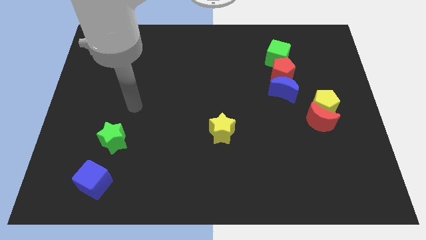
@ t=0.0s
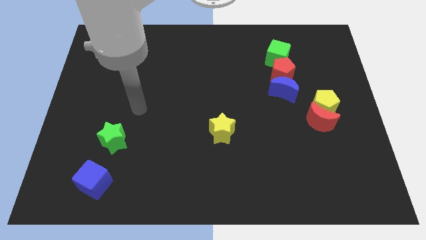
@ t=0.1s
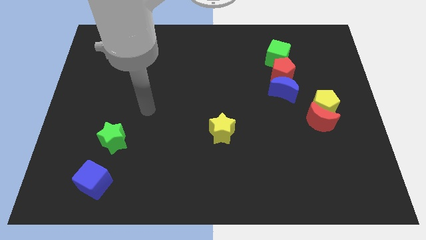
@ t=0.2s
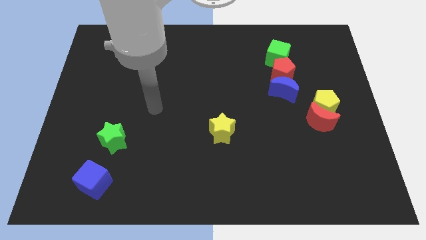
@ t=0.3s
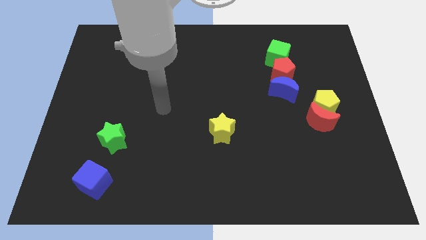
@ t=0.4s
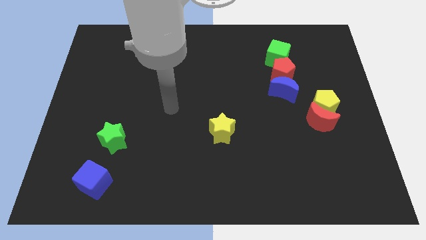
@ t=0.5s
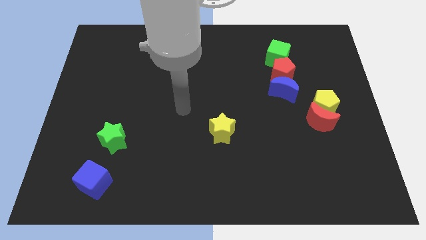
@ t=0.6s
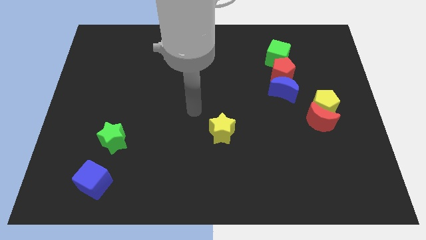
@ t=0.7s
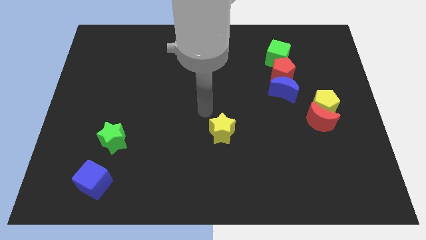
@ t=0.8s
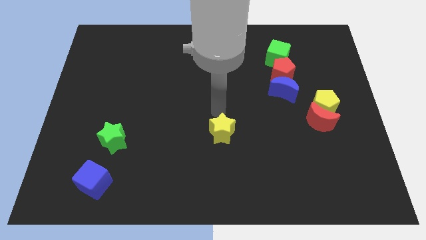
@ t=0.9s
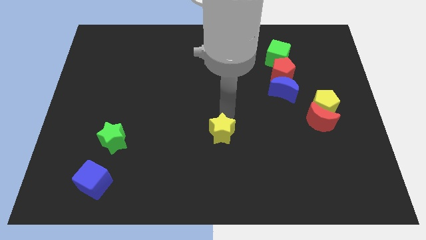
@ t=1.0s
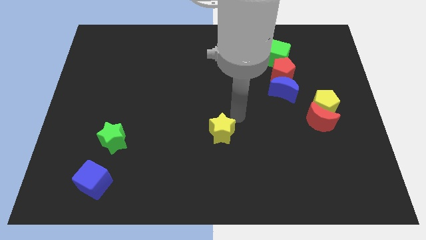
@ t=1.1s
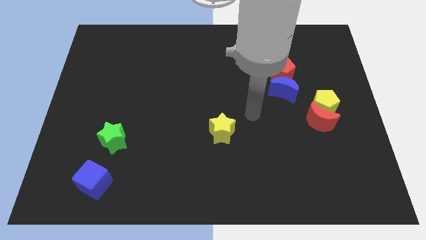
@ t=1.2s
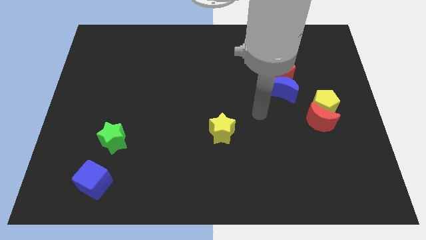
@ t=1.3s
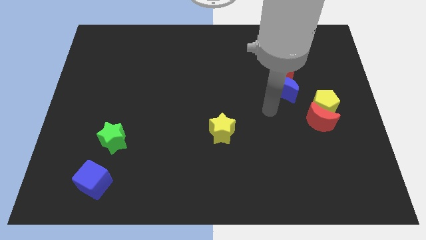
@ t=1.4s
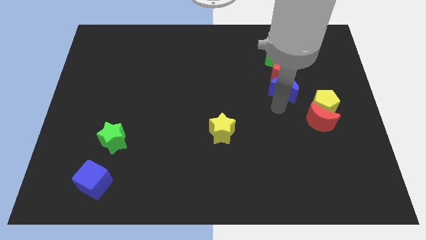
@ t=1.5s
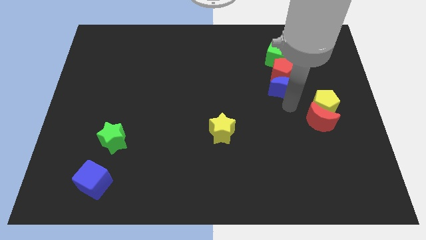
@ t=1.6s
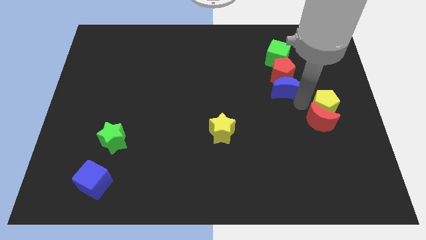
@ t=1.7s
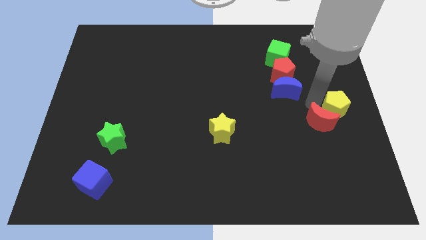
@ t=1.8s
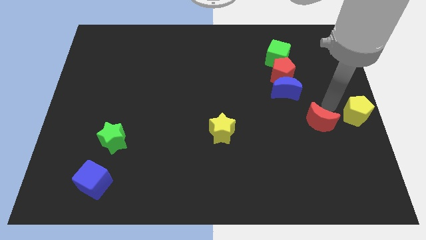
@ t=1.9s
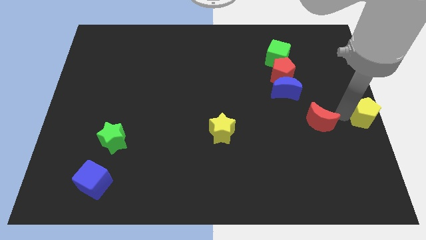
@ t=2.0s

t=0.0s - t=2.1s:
separate the red moon from the yellow pentagon

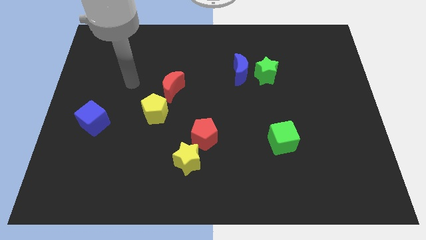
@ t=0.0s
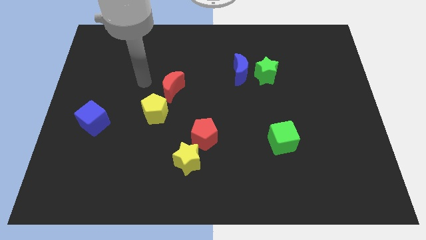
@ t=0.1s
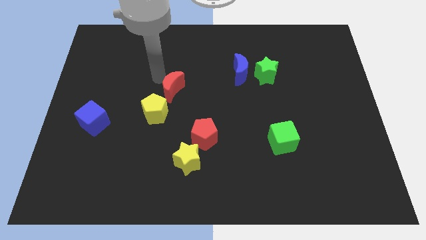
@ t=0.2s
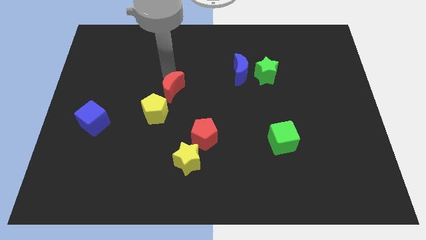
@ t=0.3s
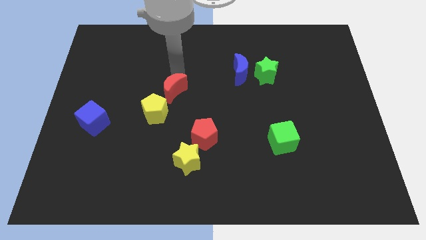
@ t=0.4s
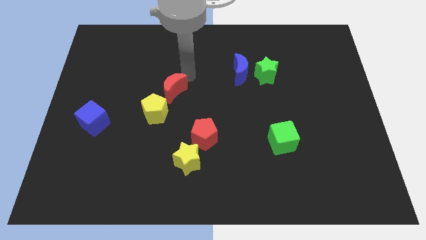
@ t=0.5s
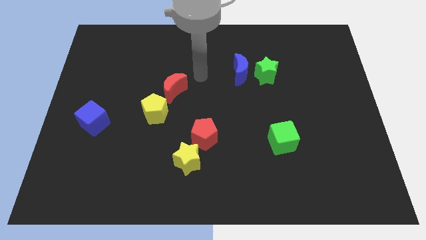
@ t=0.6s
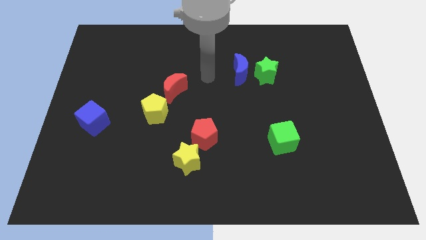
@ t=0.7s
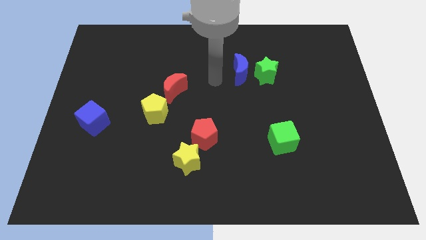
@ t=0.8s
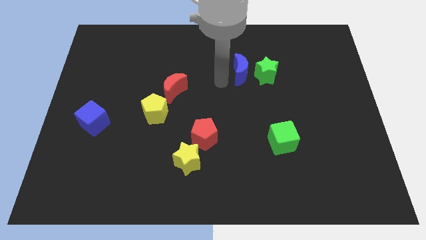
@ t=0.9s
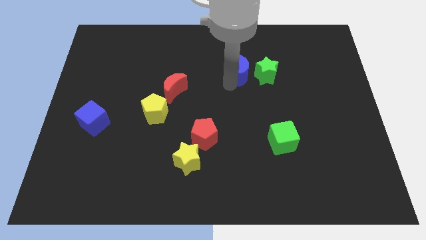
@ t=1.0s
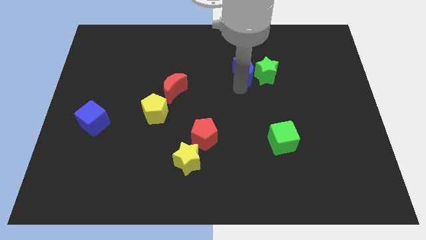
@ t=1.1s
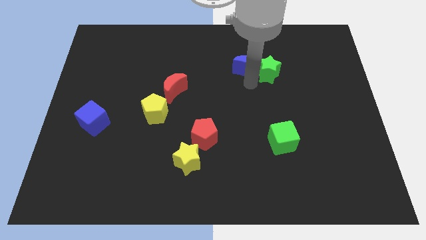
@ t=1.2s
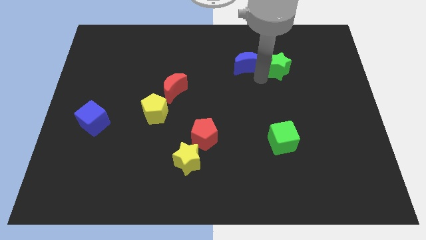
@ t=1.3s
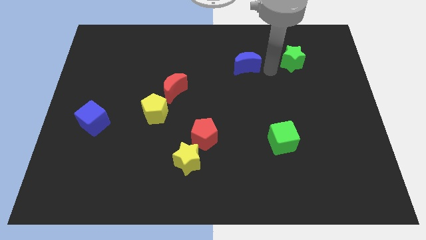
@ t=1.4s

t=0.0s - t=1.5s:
move the blue moon away from the green star

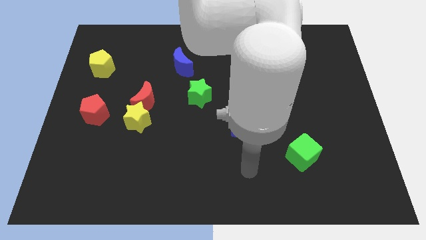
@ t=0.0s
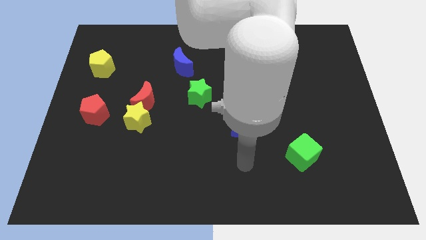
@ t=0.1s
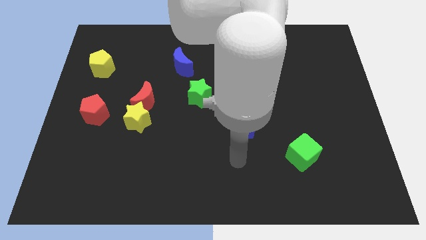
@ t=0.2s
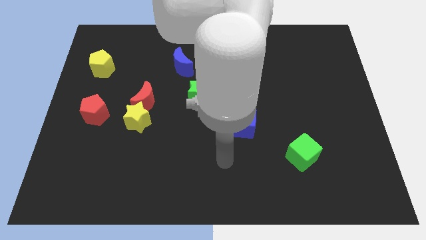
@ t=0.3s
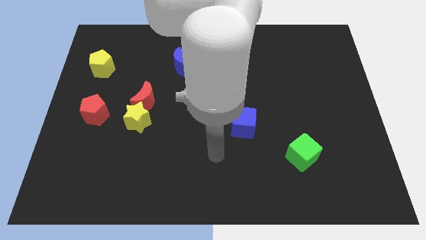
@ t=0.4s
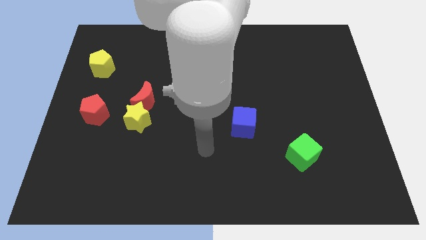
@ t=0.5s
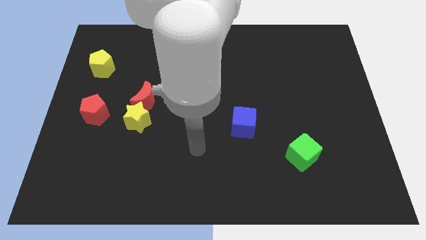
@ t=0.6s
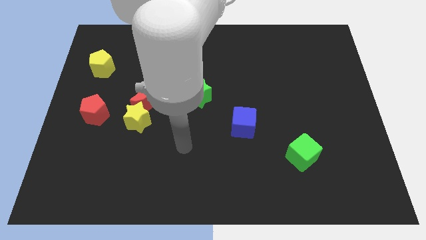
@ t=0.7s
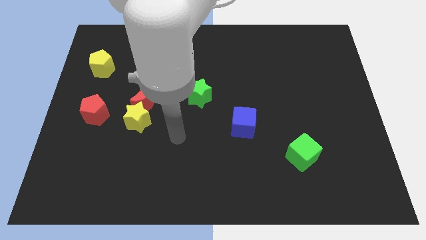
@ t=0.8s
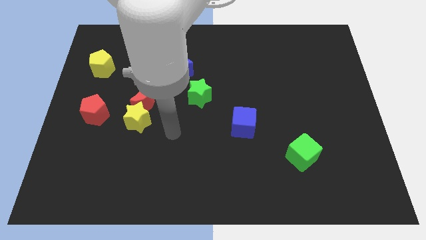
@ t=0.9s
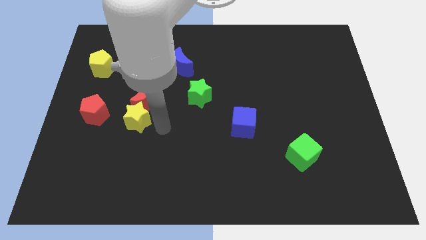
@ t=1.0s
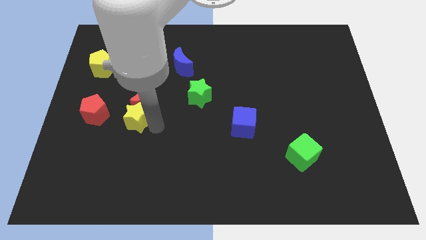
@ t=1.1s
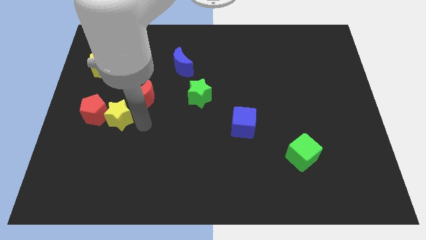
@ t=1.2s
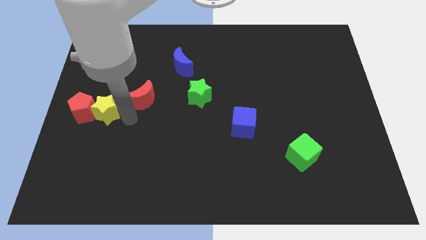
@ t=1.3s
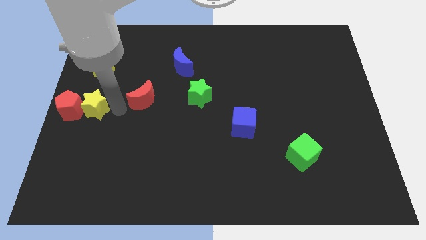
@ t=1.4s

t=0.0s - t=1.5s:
move the red moon away from the yellow star

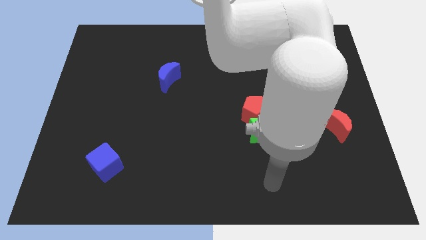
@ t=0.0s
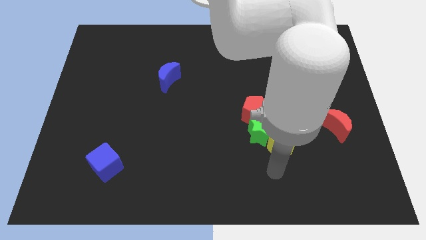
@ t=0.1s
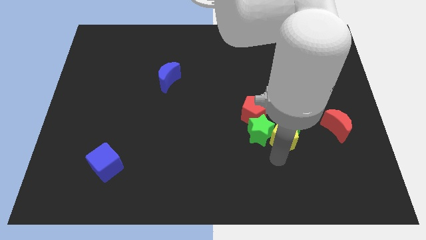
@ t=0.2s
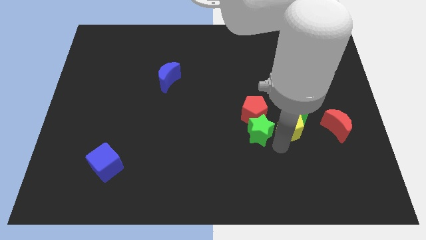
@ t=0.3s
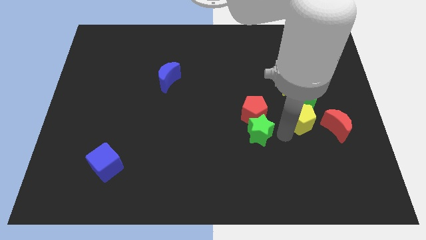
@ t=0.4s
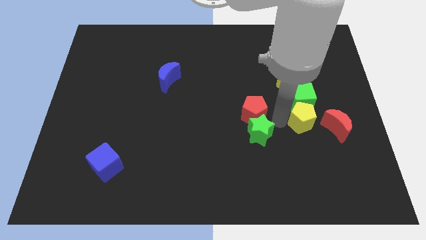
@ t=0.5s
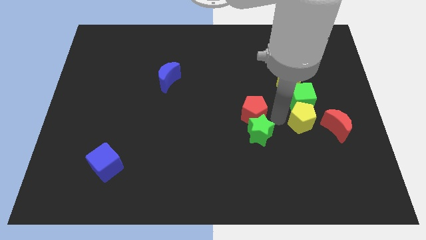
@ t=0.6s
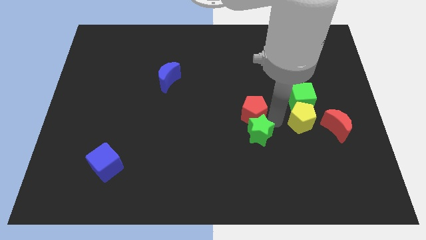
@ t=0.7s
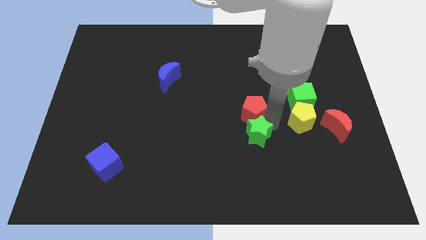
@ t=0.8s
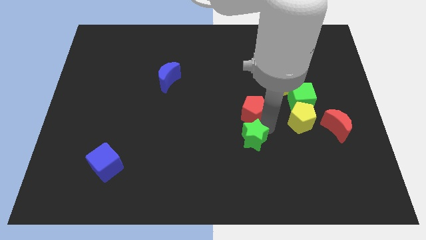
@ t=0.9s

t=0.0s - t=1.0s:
move the green star away from the group

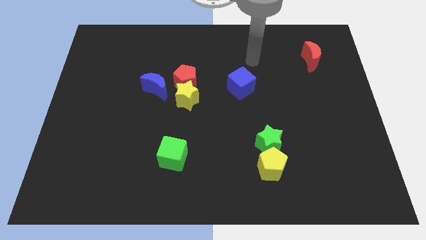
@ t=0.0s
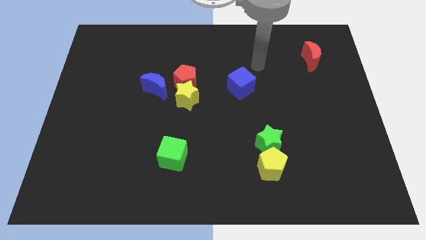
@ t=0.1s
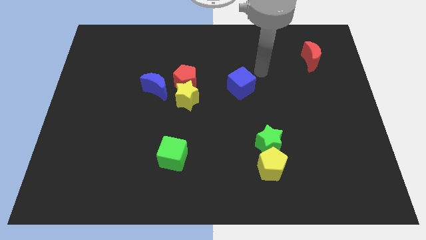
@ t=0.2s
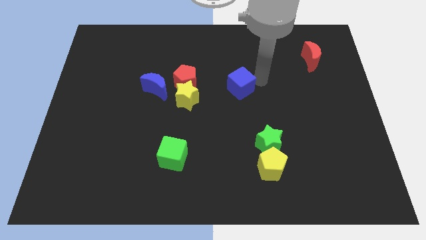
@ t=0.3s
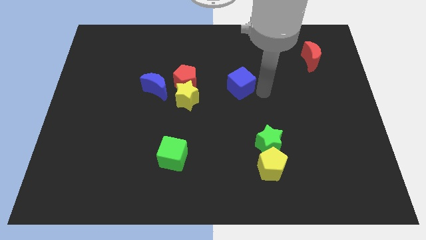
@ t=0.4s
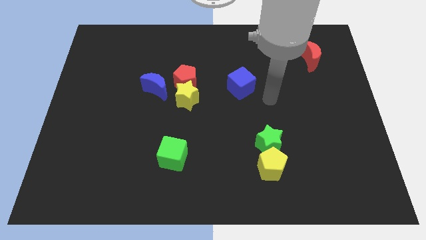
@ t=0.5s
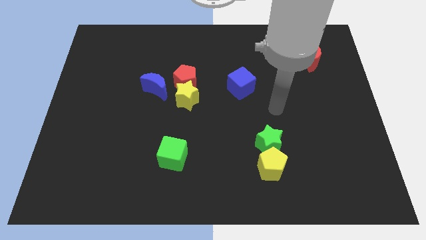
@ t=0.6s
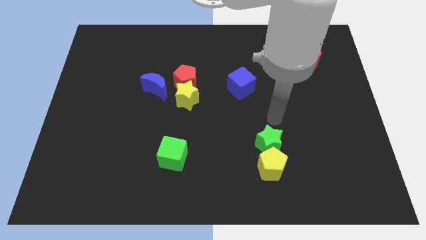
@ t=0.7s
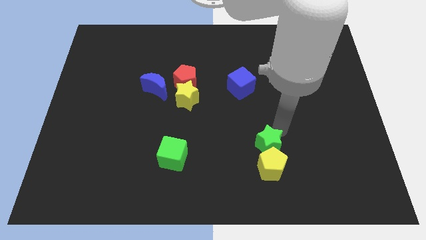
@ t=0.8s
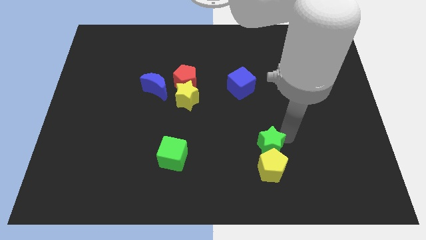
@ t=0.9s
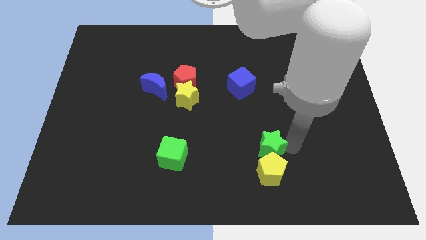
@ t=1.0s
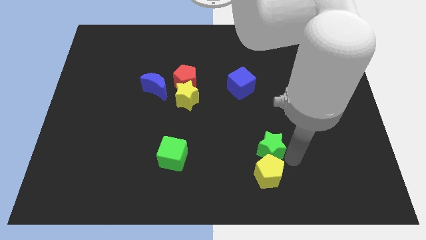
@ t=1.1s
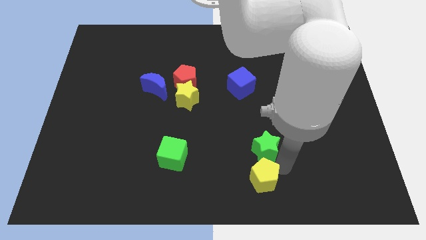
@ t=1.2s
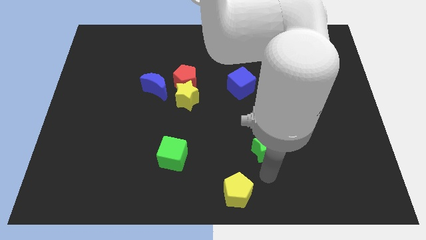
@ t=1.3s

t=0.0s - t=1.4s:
separate the green star from the yellow pentagon

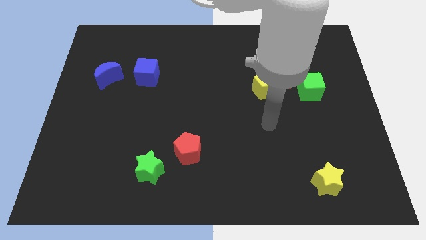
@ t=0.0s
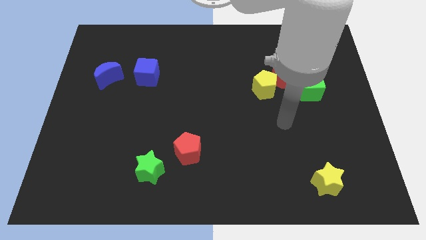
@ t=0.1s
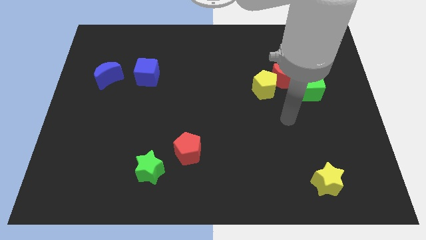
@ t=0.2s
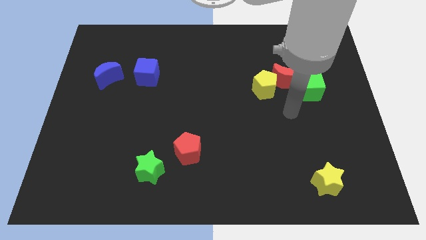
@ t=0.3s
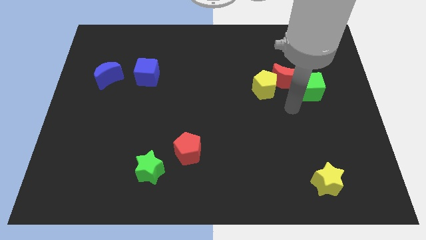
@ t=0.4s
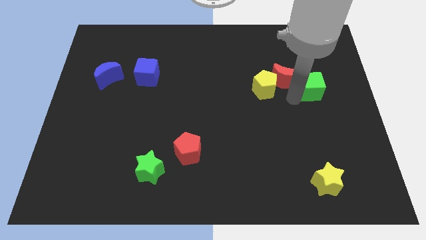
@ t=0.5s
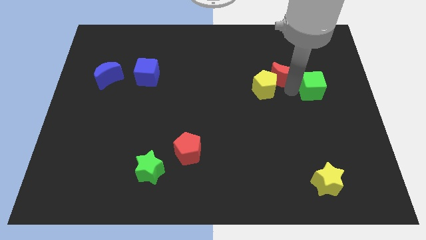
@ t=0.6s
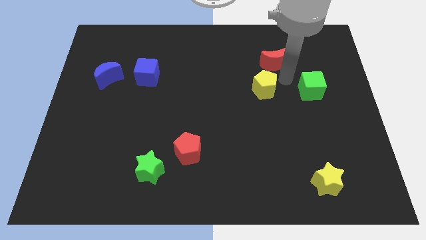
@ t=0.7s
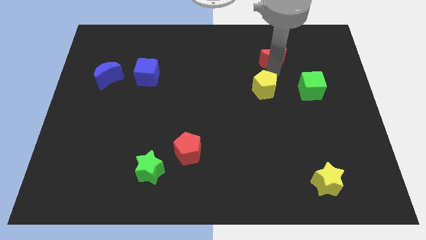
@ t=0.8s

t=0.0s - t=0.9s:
pull the yellow pentagon apart from the red moon

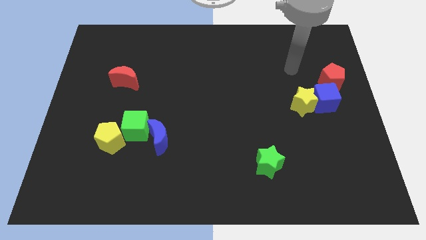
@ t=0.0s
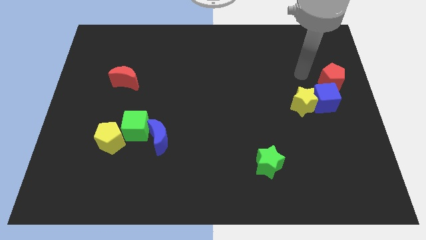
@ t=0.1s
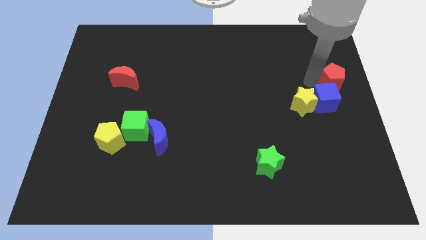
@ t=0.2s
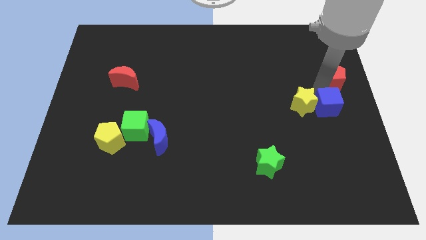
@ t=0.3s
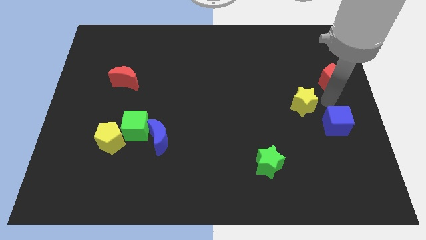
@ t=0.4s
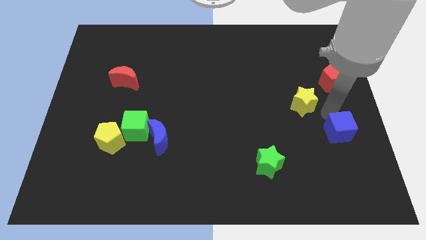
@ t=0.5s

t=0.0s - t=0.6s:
pull the yellow star apart from the blue cube
